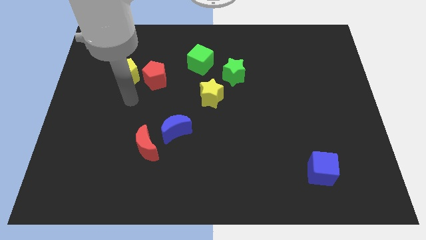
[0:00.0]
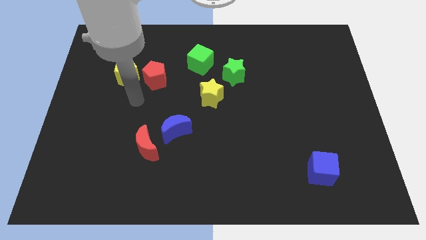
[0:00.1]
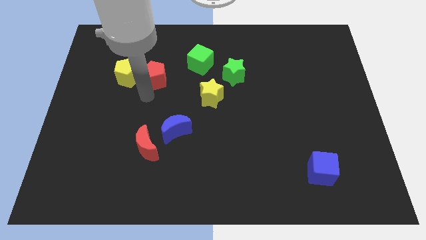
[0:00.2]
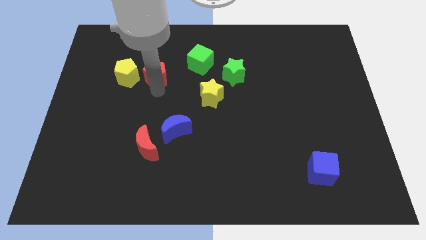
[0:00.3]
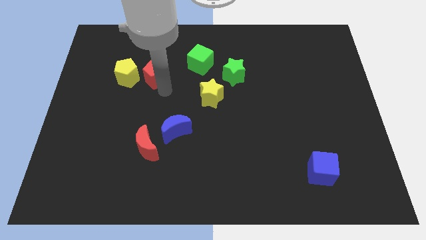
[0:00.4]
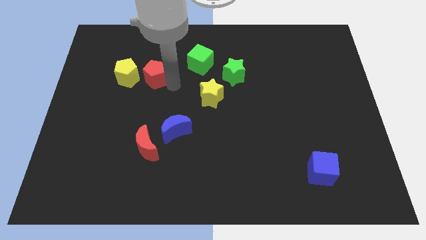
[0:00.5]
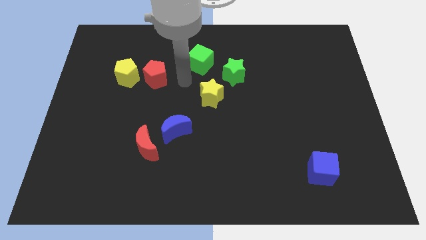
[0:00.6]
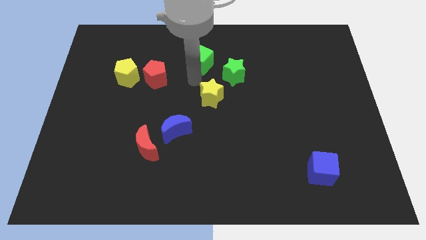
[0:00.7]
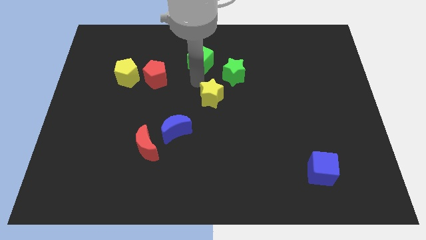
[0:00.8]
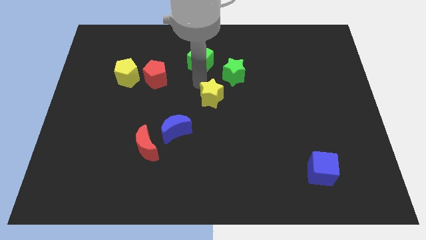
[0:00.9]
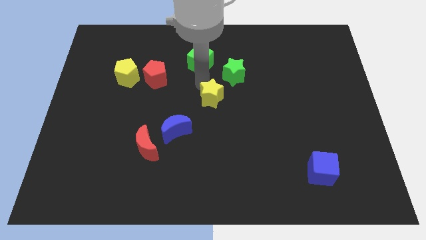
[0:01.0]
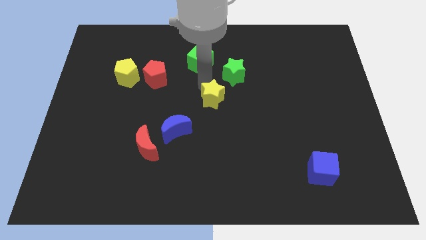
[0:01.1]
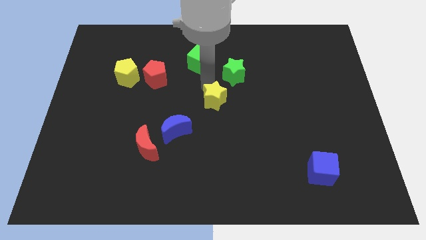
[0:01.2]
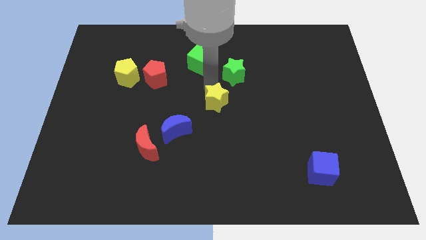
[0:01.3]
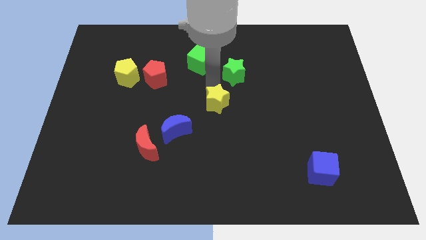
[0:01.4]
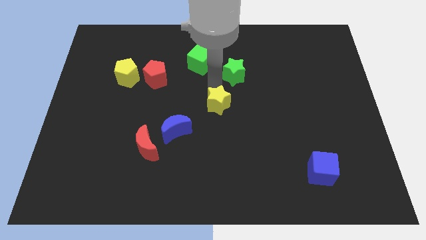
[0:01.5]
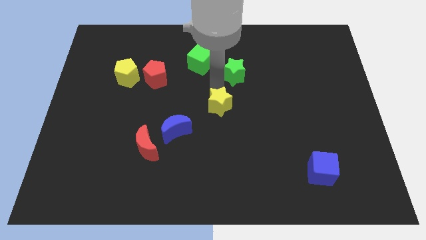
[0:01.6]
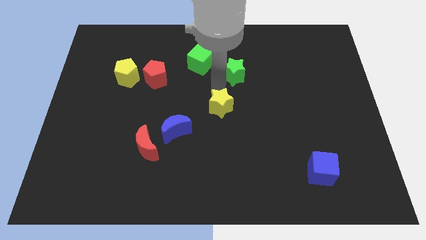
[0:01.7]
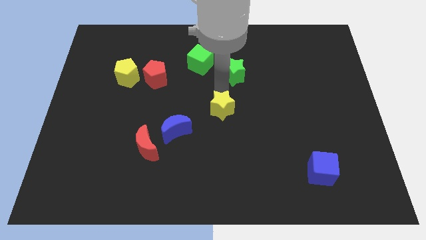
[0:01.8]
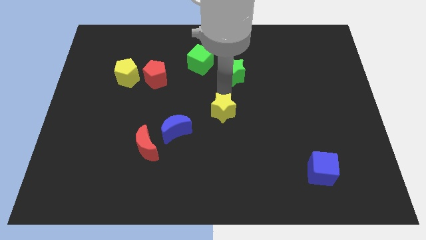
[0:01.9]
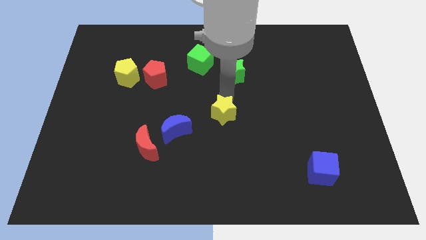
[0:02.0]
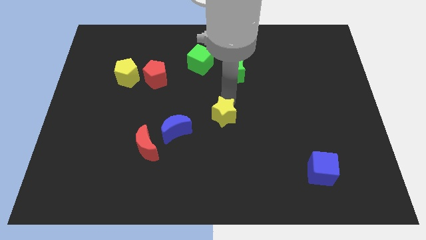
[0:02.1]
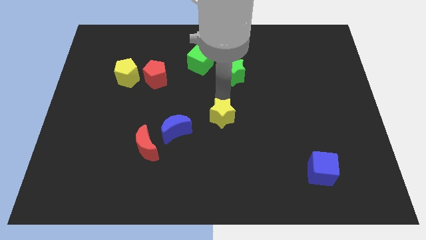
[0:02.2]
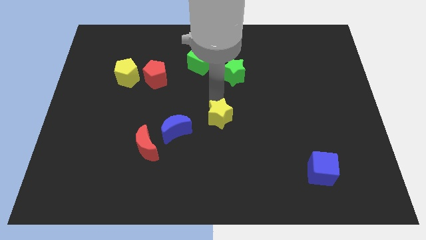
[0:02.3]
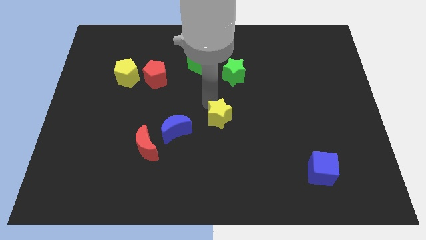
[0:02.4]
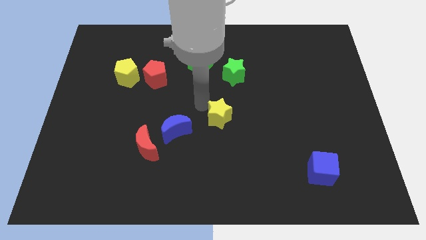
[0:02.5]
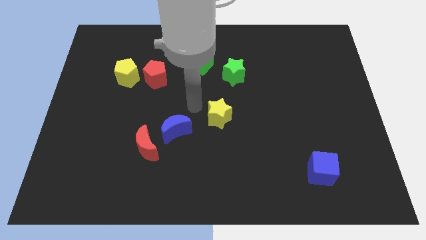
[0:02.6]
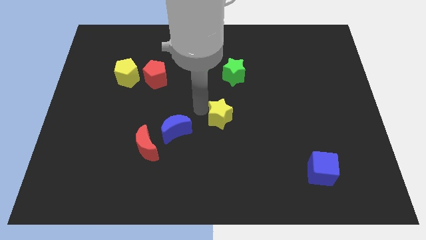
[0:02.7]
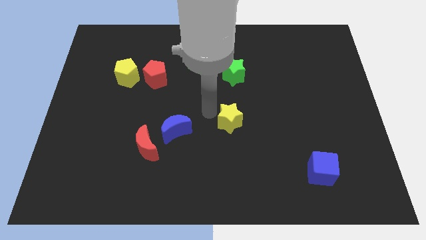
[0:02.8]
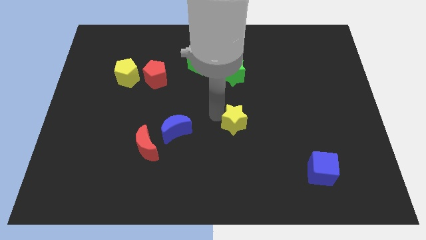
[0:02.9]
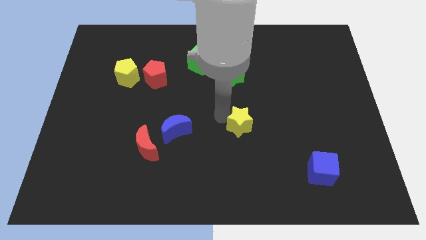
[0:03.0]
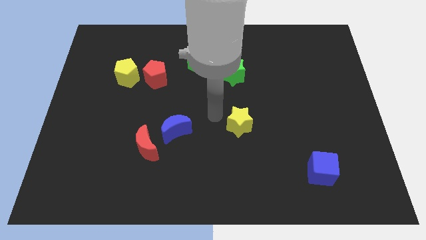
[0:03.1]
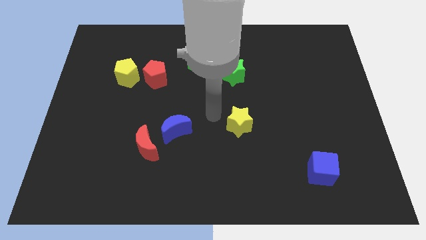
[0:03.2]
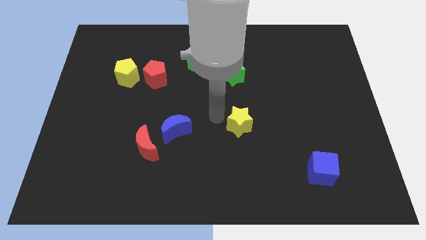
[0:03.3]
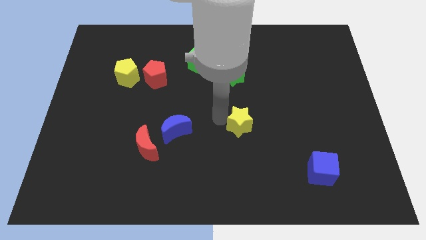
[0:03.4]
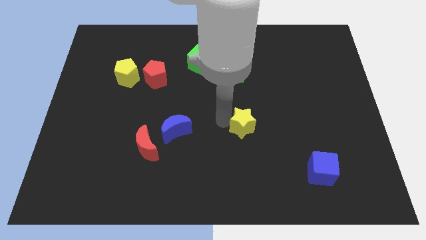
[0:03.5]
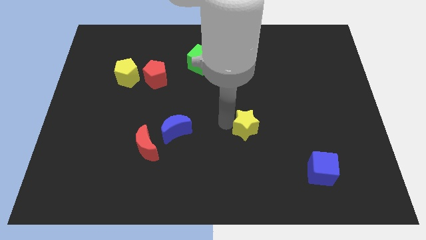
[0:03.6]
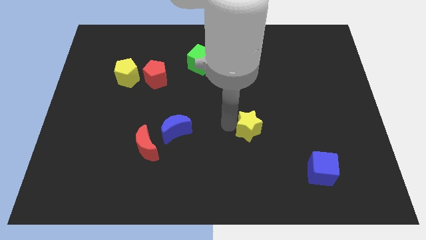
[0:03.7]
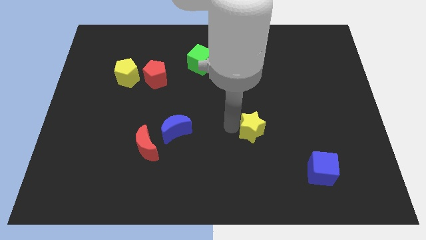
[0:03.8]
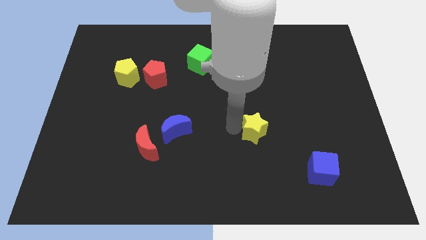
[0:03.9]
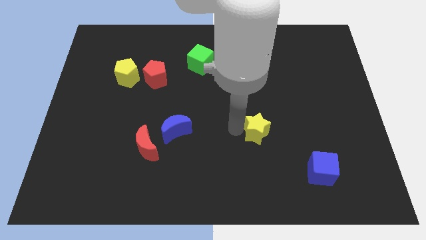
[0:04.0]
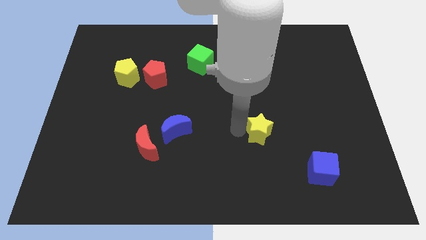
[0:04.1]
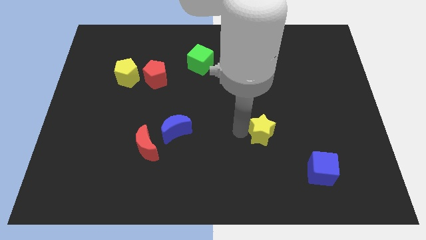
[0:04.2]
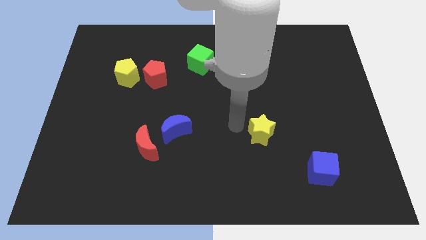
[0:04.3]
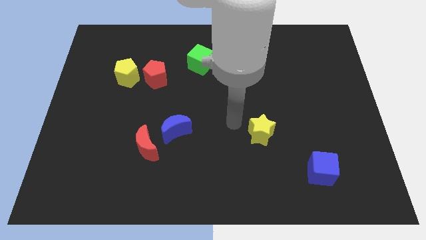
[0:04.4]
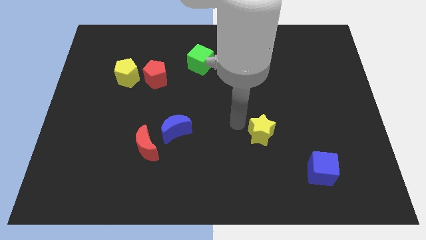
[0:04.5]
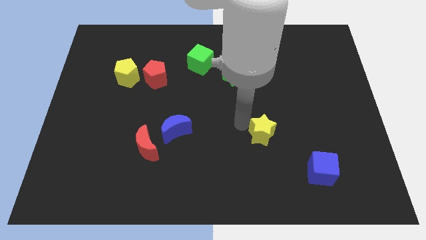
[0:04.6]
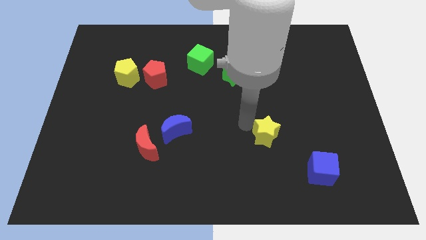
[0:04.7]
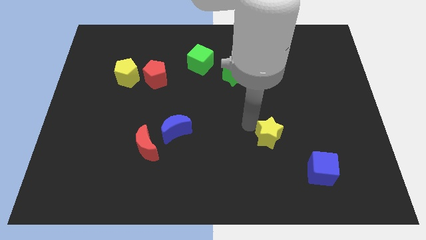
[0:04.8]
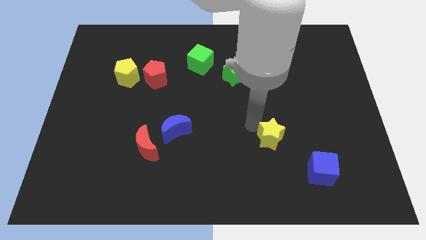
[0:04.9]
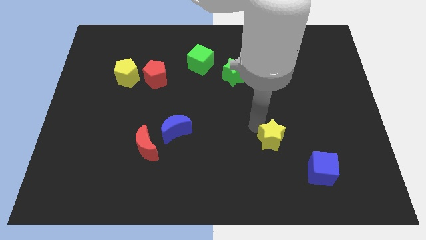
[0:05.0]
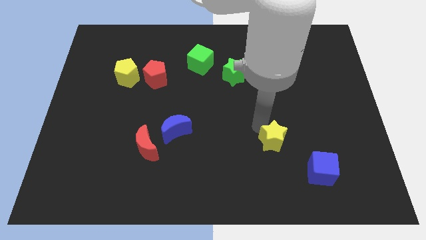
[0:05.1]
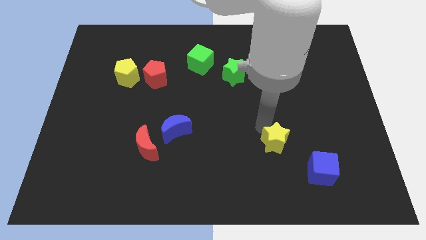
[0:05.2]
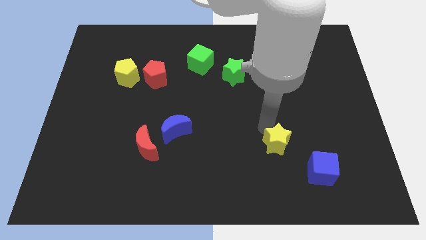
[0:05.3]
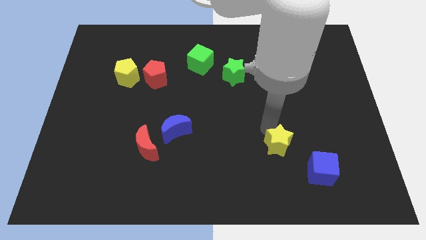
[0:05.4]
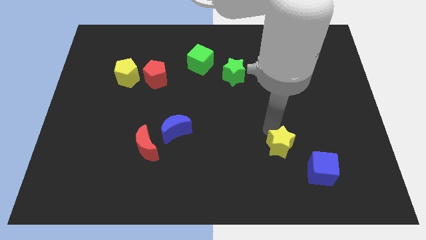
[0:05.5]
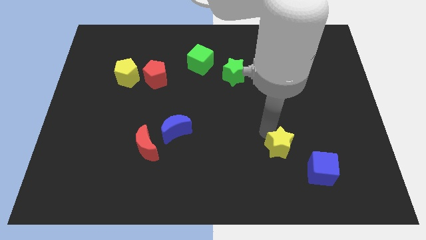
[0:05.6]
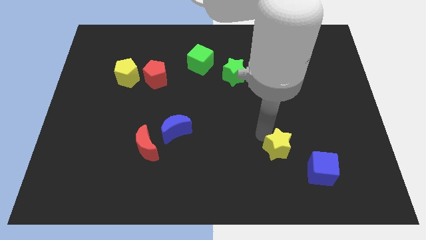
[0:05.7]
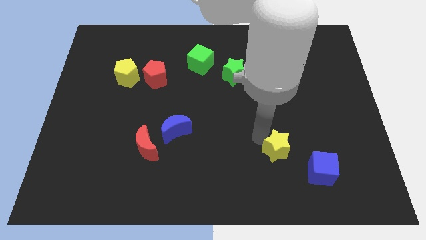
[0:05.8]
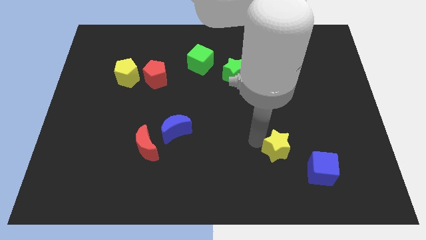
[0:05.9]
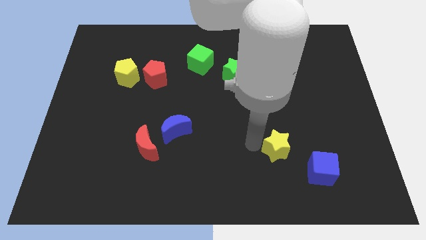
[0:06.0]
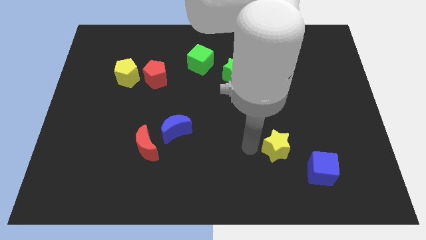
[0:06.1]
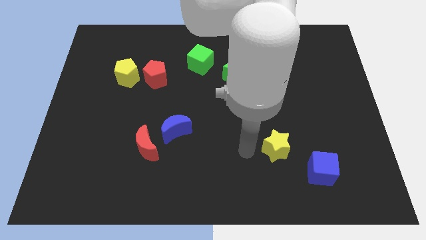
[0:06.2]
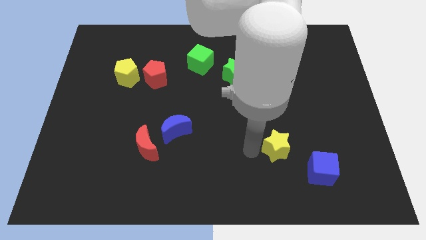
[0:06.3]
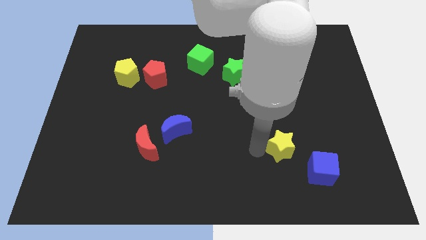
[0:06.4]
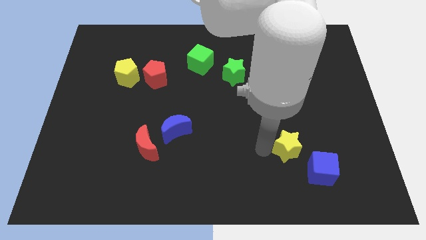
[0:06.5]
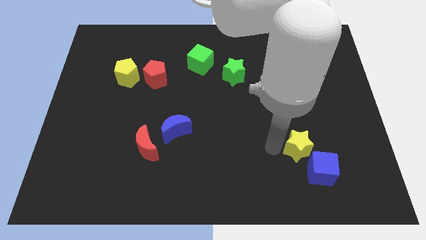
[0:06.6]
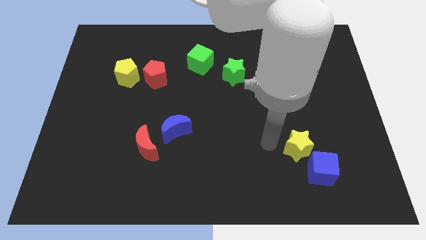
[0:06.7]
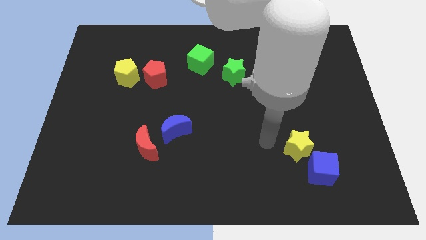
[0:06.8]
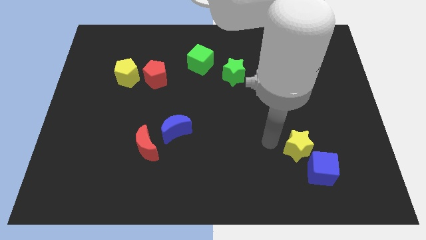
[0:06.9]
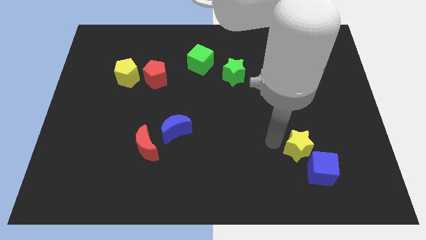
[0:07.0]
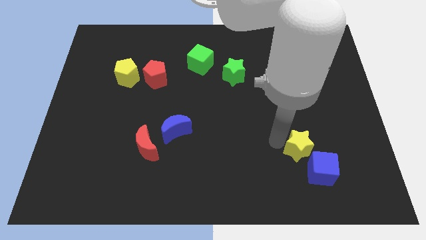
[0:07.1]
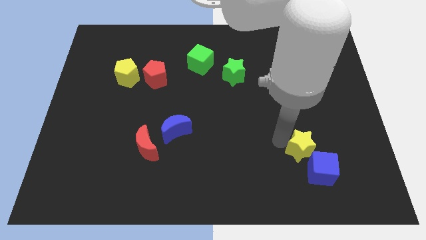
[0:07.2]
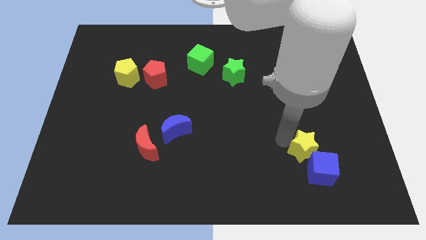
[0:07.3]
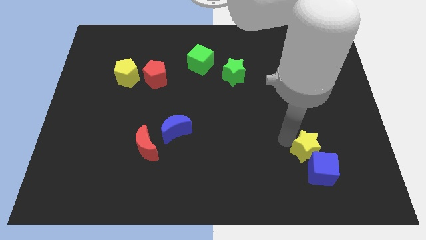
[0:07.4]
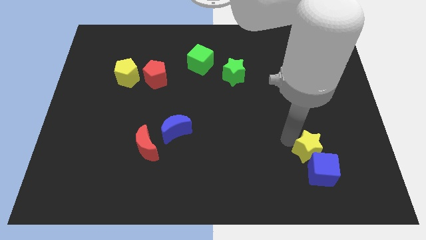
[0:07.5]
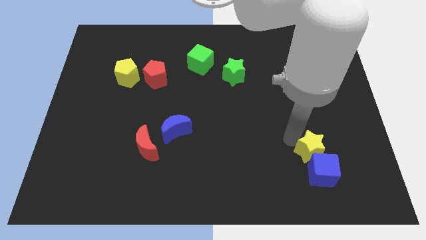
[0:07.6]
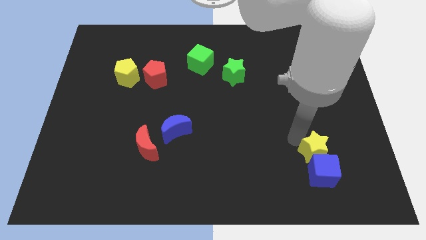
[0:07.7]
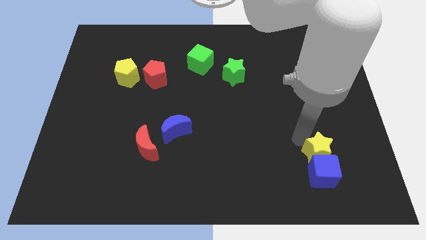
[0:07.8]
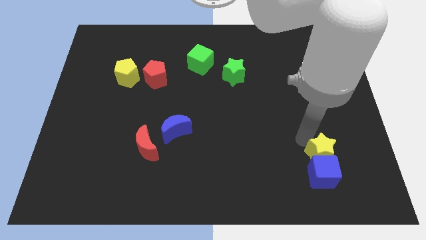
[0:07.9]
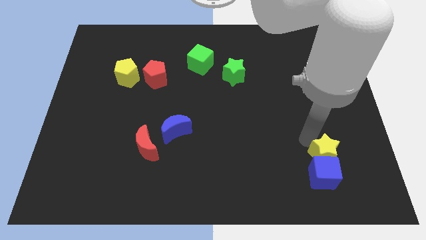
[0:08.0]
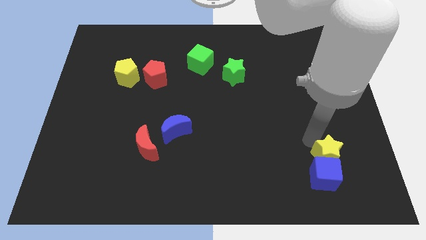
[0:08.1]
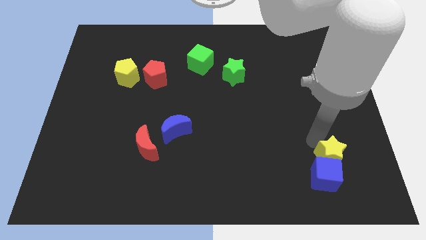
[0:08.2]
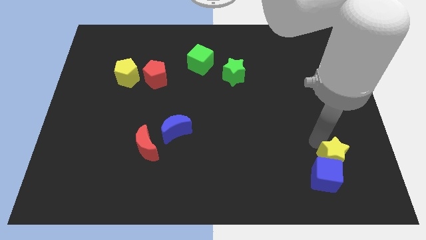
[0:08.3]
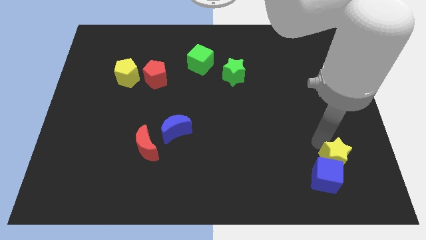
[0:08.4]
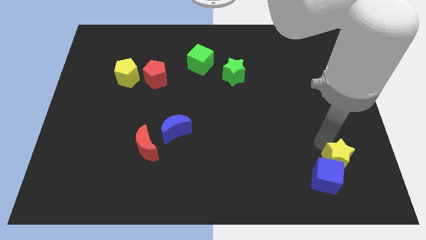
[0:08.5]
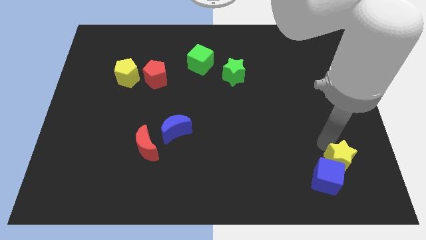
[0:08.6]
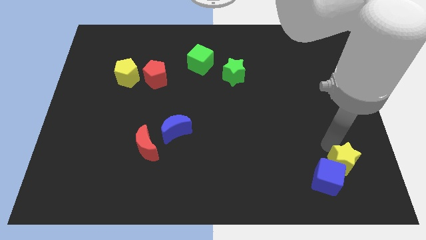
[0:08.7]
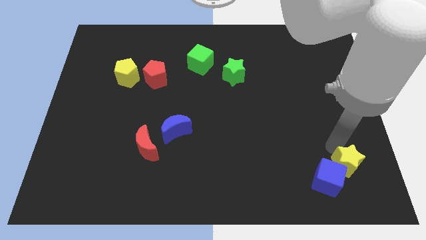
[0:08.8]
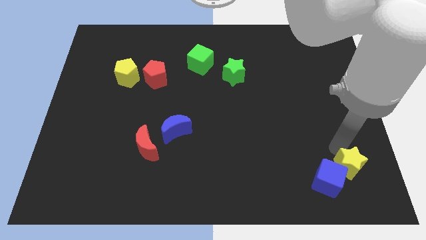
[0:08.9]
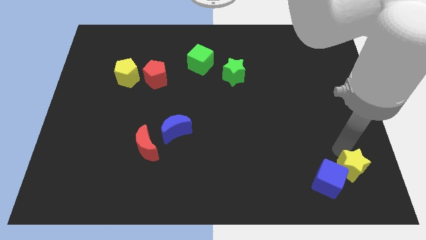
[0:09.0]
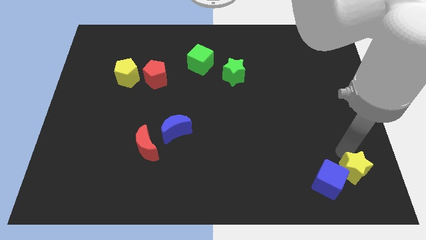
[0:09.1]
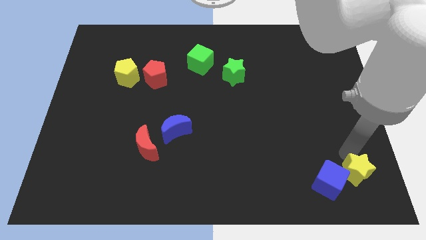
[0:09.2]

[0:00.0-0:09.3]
move the yellow star to the bottom right corner
